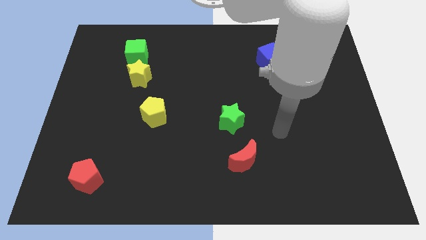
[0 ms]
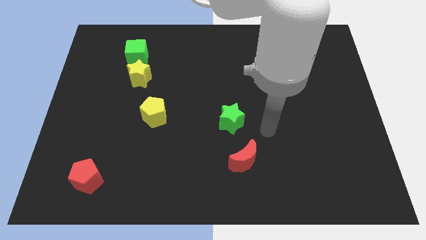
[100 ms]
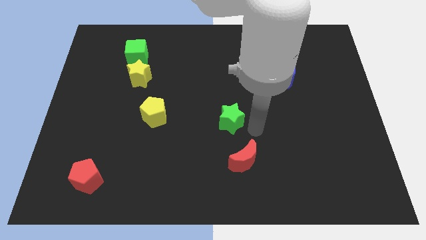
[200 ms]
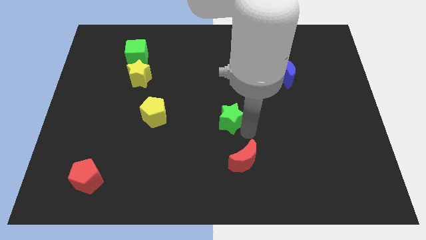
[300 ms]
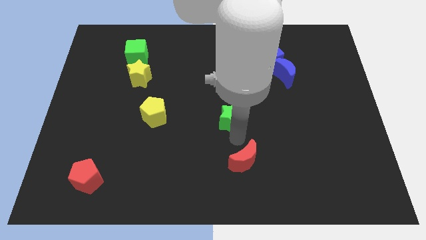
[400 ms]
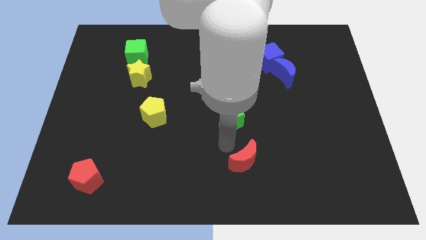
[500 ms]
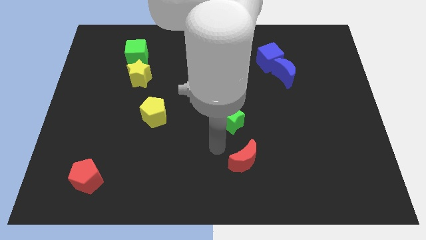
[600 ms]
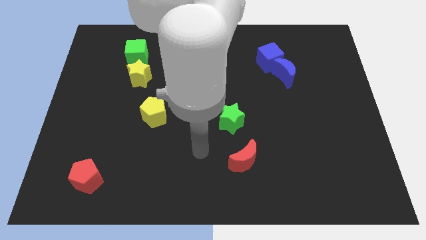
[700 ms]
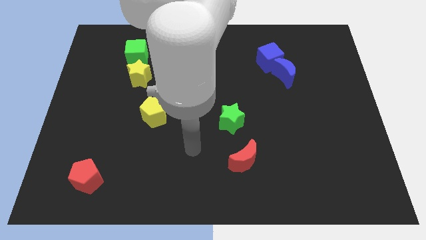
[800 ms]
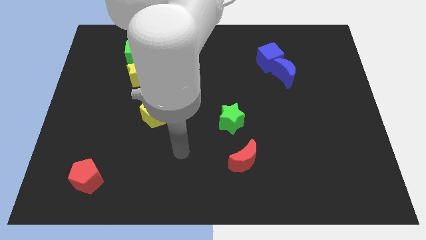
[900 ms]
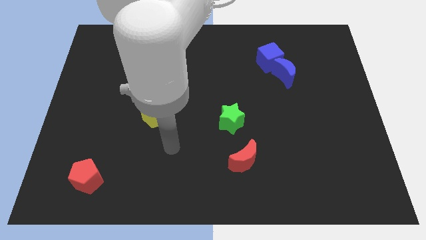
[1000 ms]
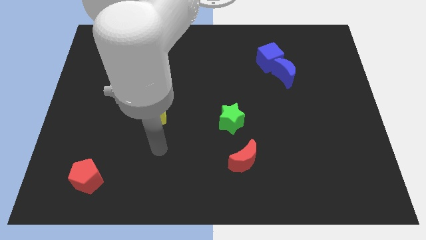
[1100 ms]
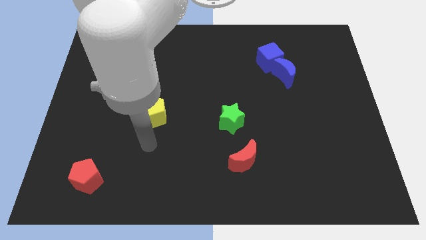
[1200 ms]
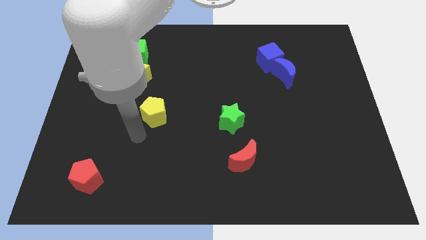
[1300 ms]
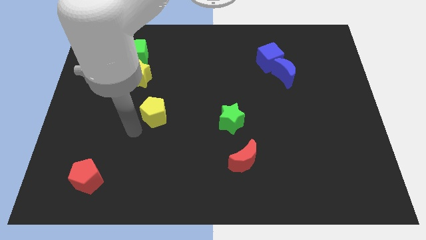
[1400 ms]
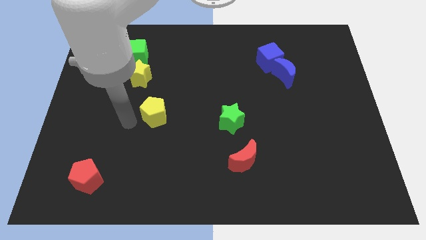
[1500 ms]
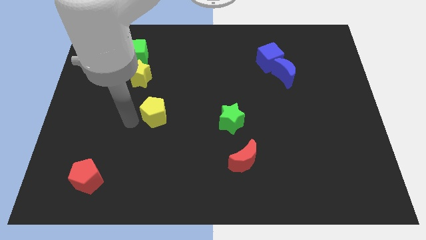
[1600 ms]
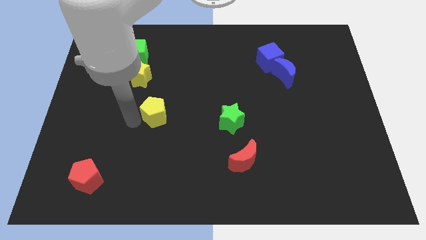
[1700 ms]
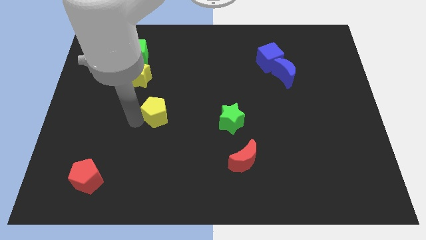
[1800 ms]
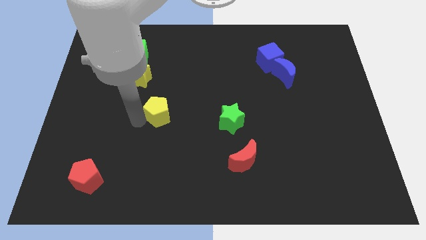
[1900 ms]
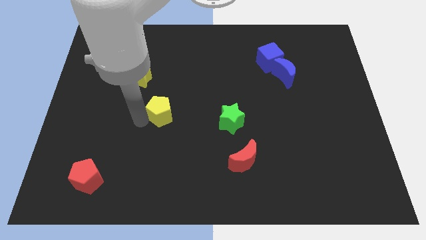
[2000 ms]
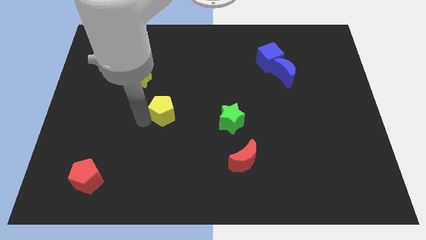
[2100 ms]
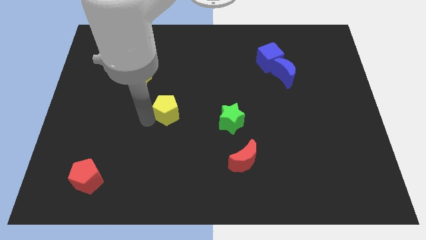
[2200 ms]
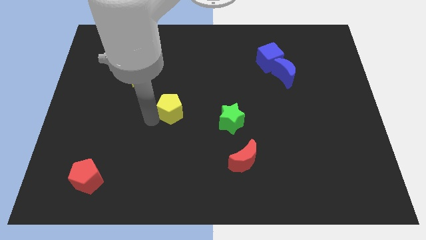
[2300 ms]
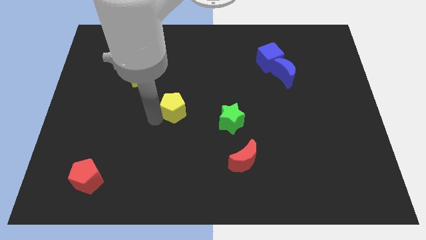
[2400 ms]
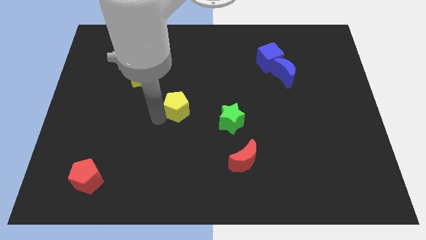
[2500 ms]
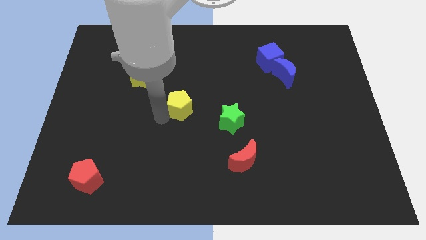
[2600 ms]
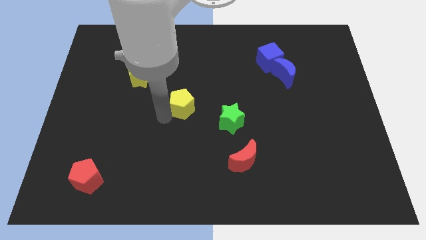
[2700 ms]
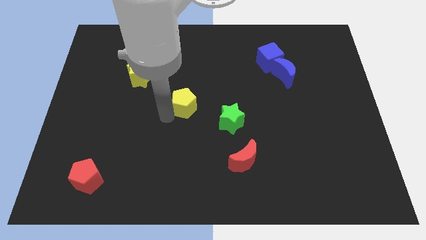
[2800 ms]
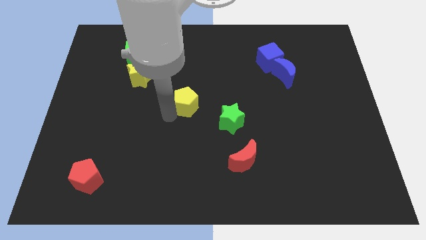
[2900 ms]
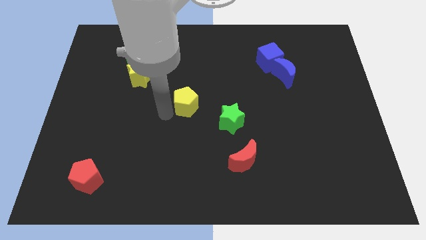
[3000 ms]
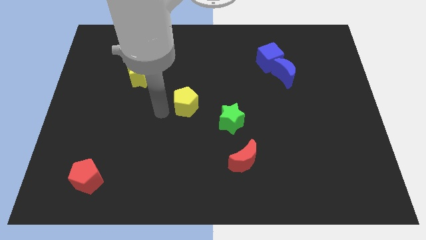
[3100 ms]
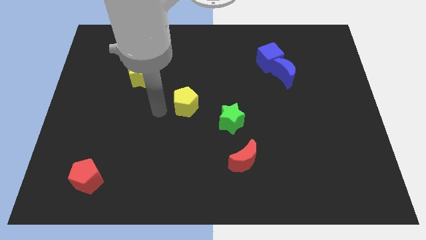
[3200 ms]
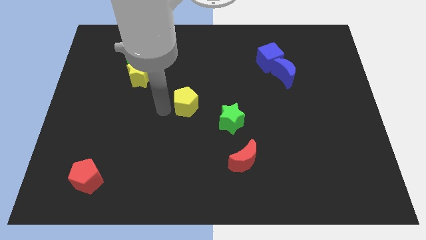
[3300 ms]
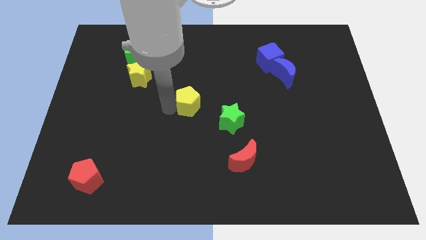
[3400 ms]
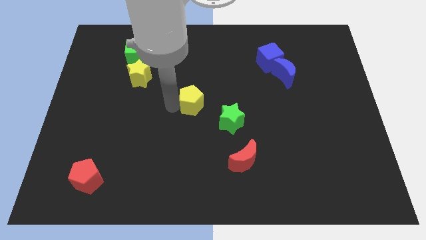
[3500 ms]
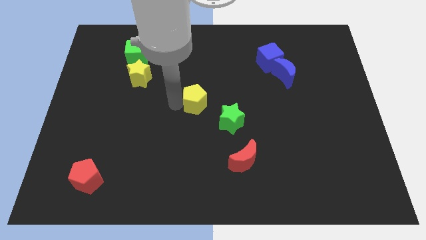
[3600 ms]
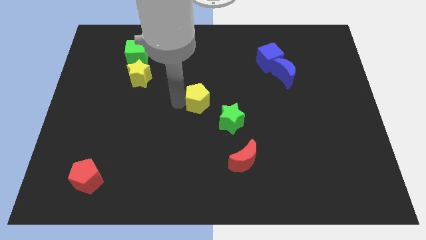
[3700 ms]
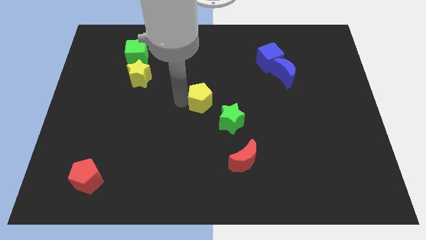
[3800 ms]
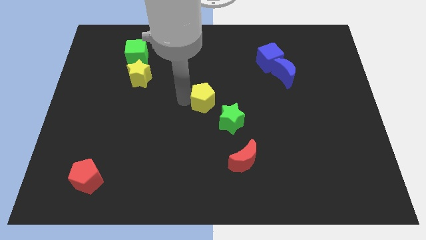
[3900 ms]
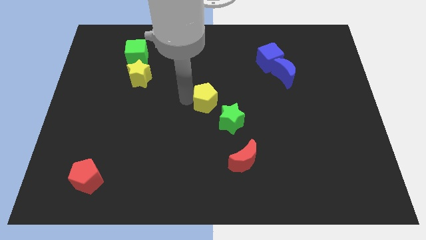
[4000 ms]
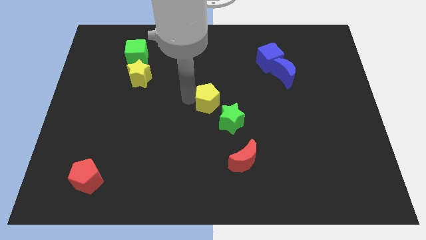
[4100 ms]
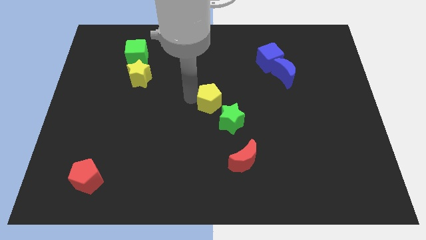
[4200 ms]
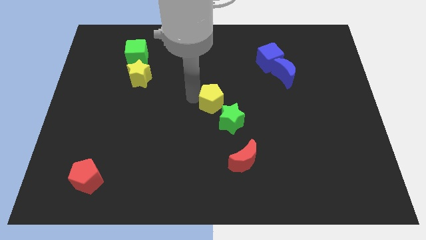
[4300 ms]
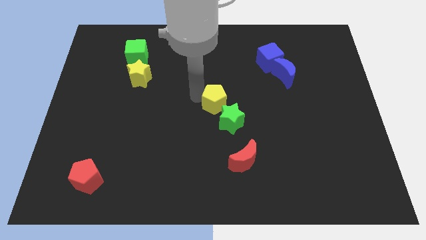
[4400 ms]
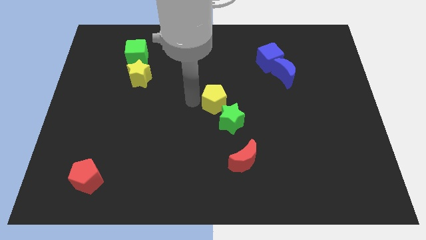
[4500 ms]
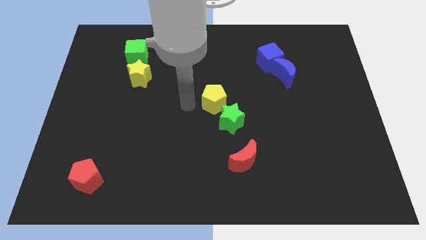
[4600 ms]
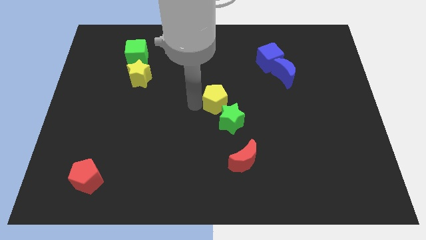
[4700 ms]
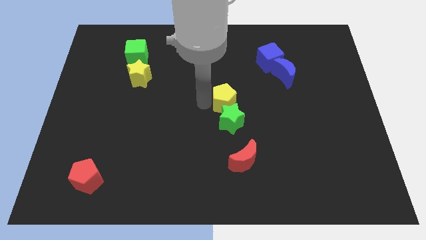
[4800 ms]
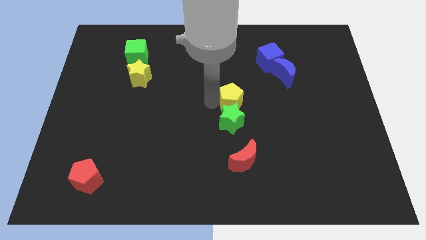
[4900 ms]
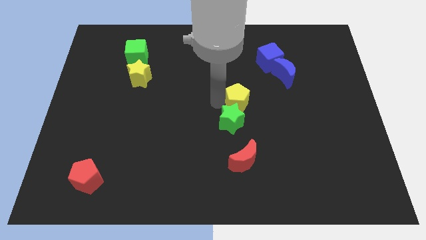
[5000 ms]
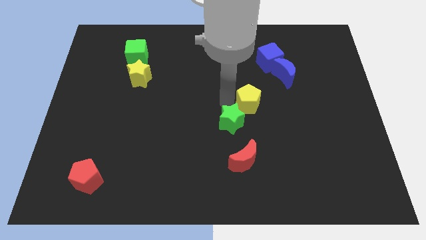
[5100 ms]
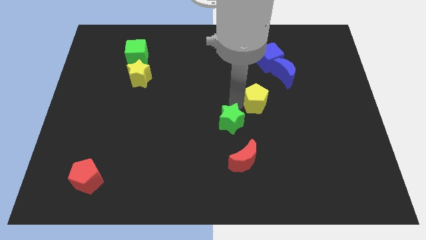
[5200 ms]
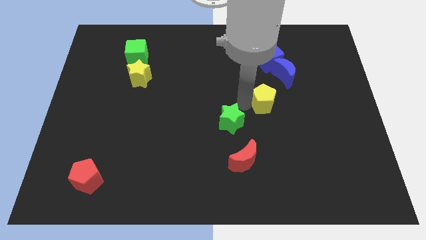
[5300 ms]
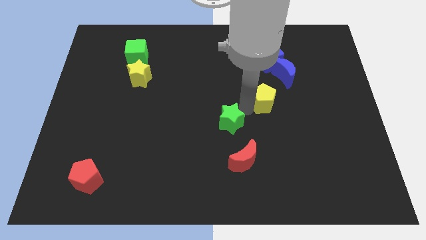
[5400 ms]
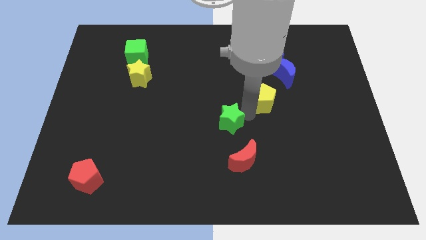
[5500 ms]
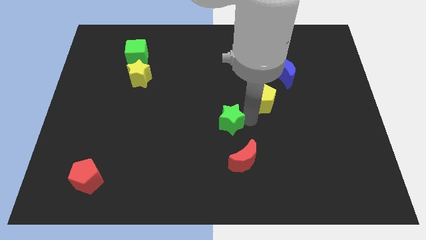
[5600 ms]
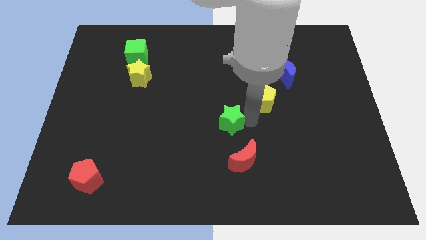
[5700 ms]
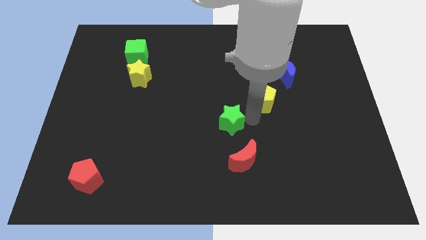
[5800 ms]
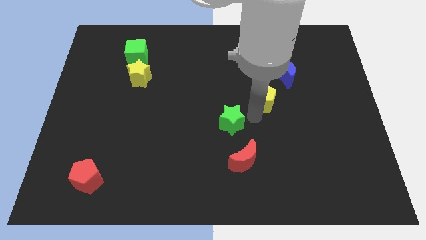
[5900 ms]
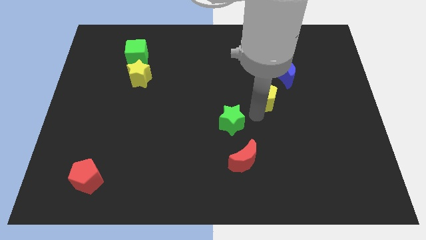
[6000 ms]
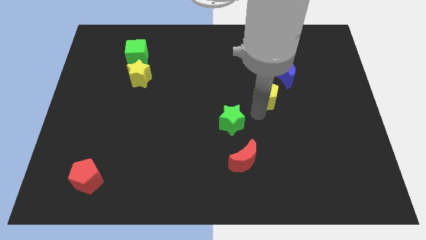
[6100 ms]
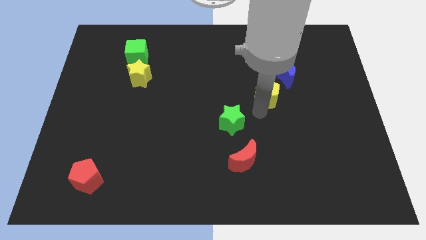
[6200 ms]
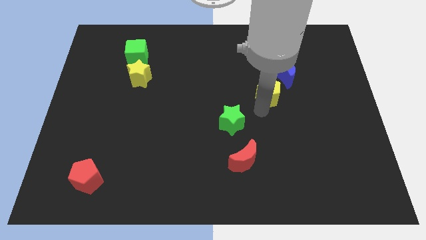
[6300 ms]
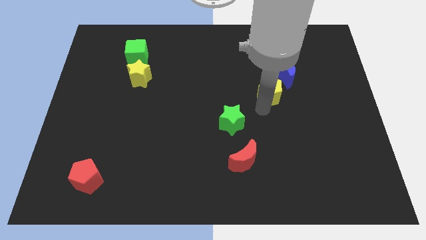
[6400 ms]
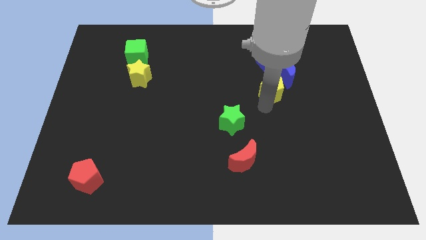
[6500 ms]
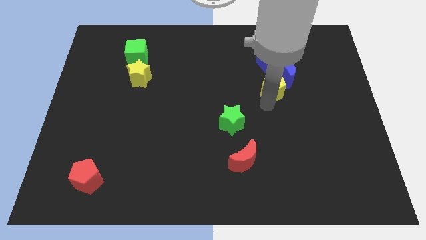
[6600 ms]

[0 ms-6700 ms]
move the yellow pentagon next to the blue moon

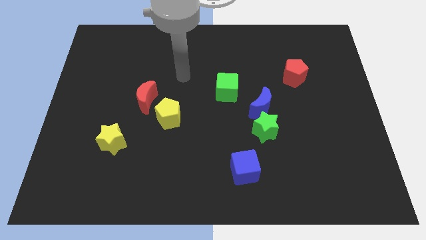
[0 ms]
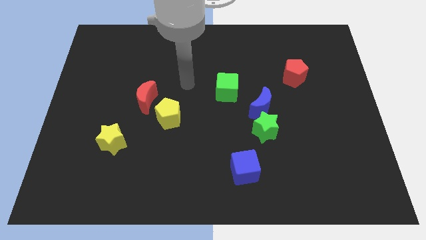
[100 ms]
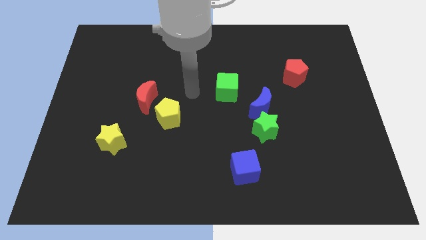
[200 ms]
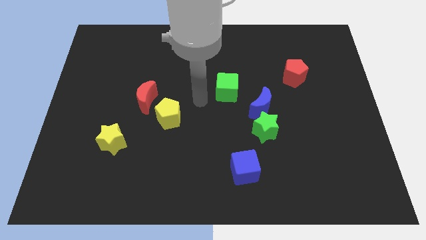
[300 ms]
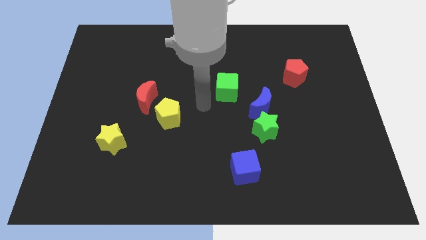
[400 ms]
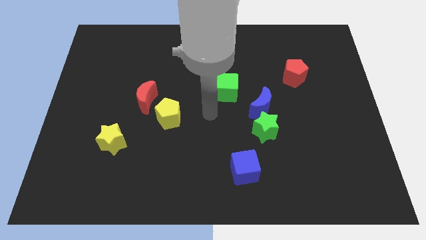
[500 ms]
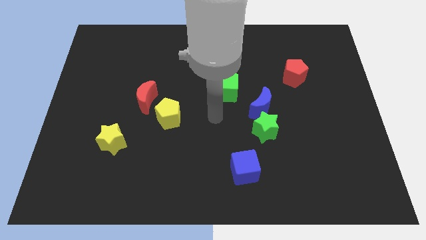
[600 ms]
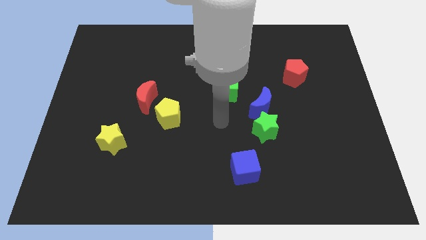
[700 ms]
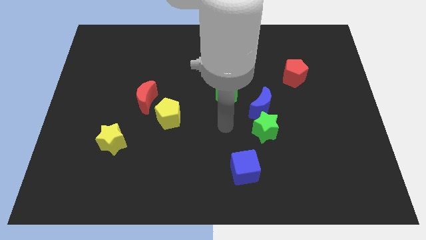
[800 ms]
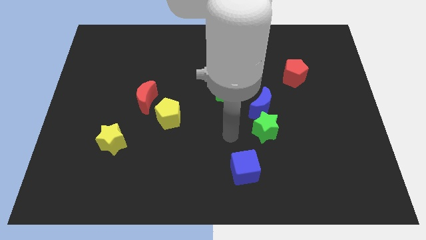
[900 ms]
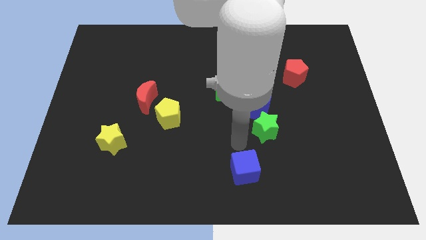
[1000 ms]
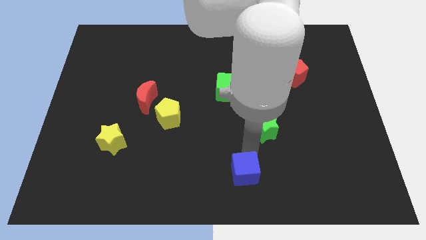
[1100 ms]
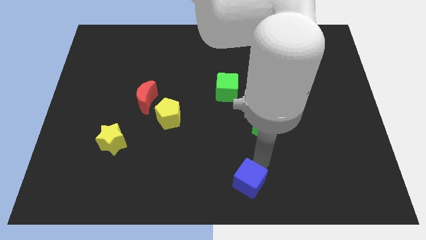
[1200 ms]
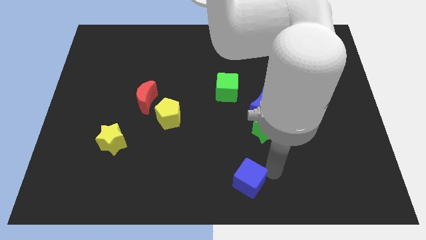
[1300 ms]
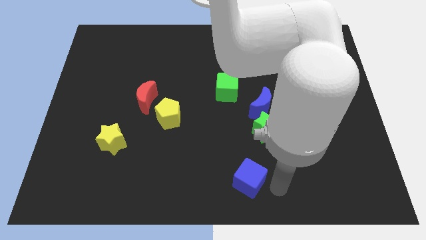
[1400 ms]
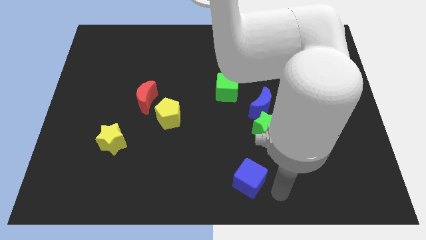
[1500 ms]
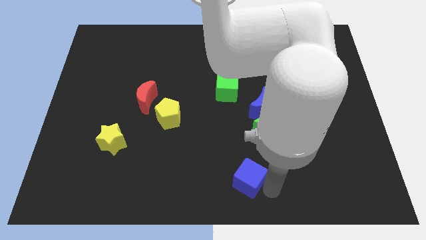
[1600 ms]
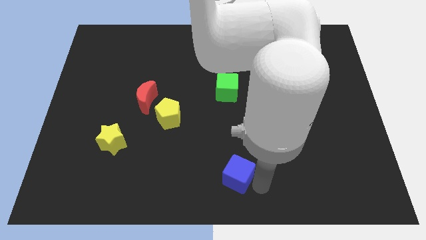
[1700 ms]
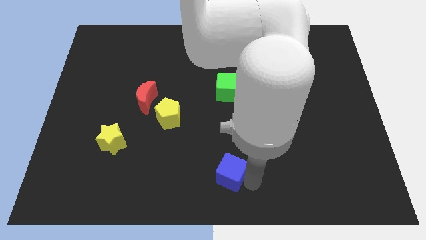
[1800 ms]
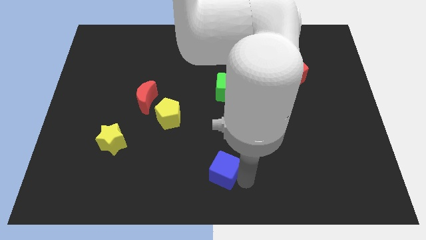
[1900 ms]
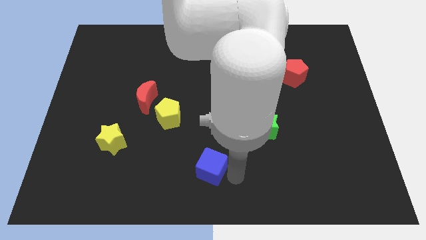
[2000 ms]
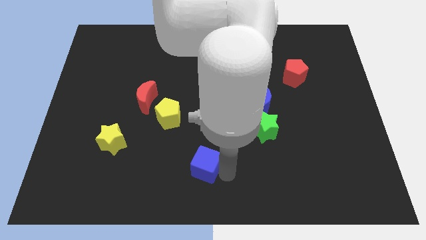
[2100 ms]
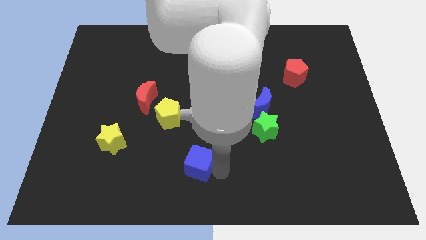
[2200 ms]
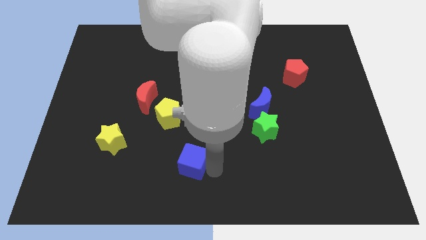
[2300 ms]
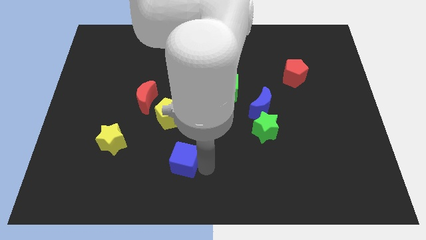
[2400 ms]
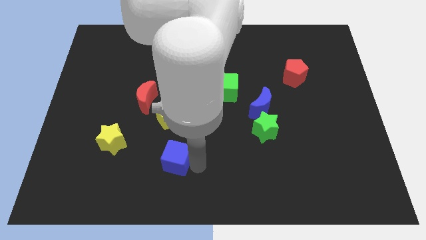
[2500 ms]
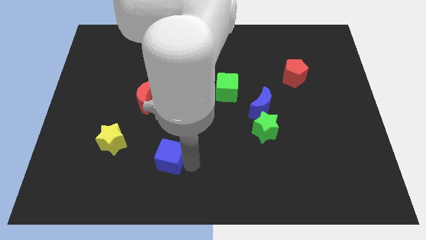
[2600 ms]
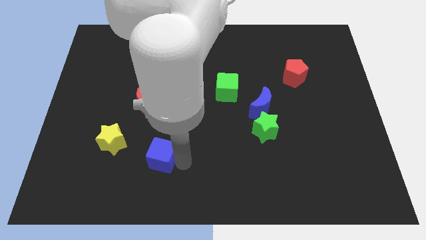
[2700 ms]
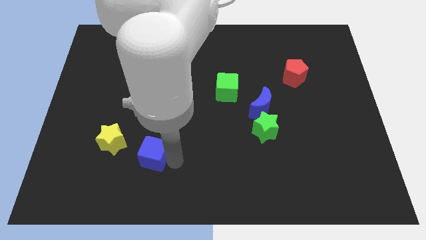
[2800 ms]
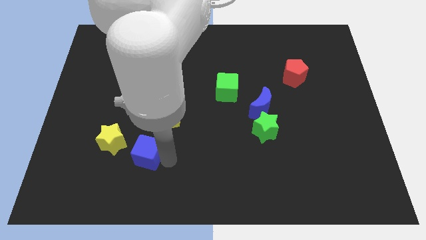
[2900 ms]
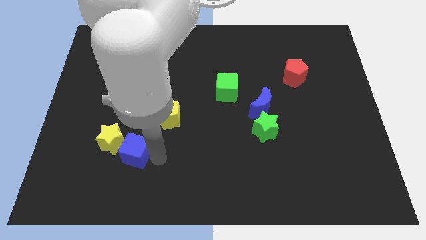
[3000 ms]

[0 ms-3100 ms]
move the blue cube to the yellow star
